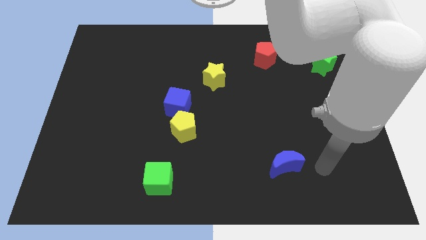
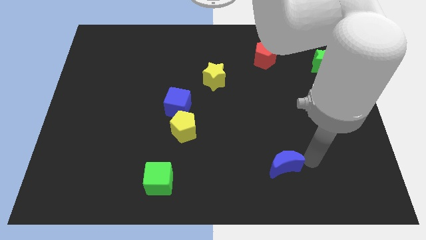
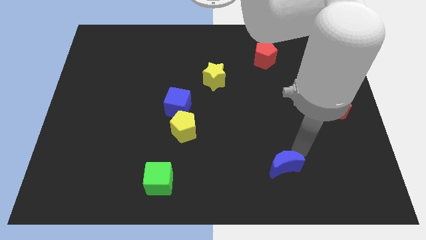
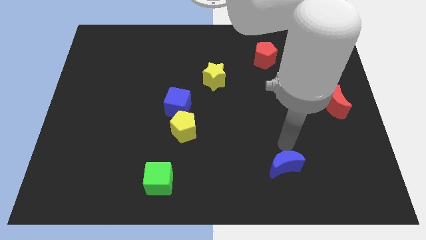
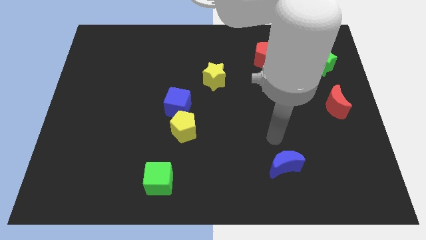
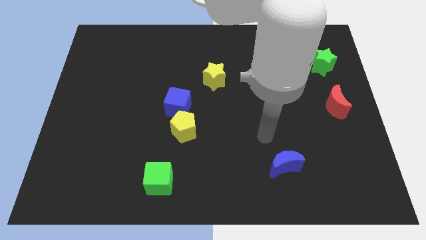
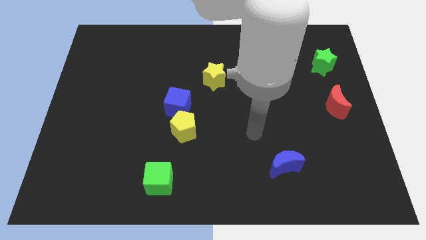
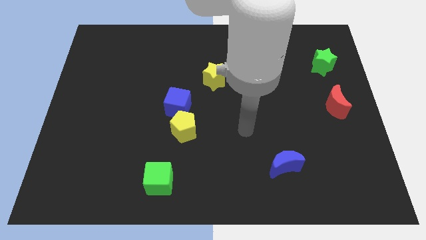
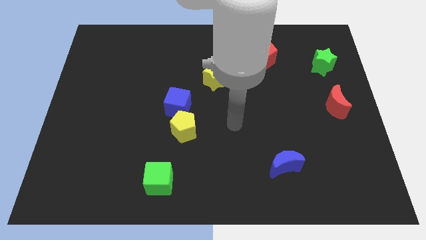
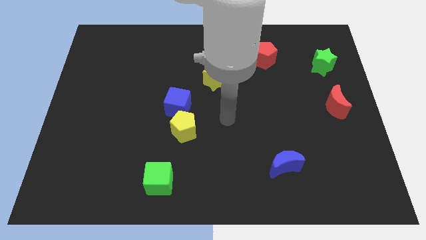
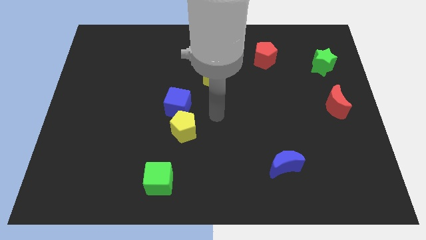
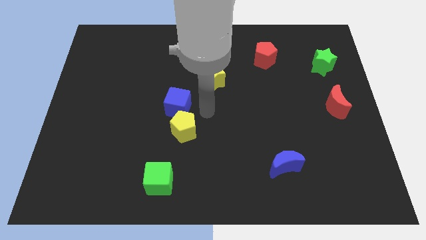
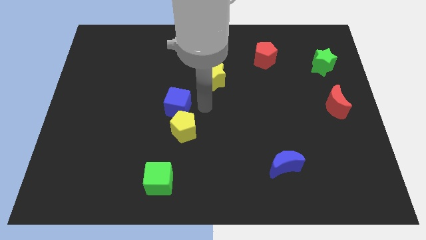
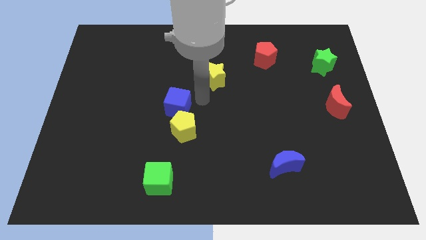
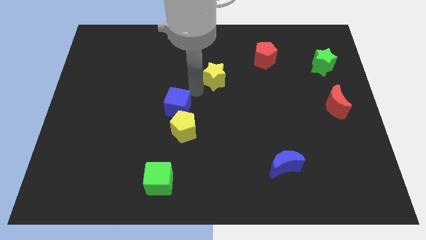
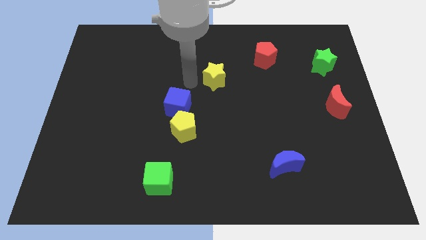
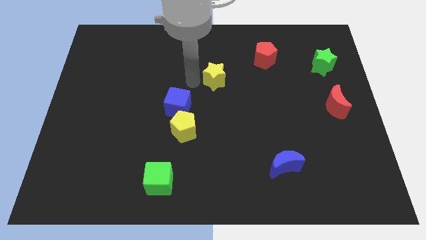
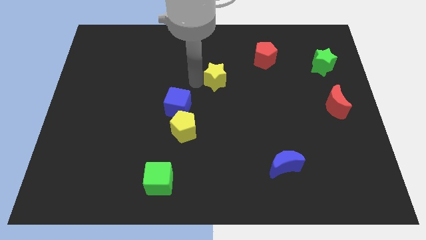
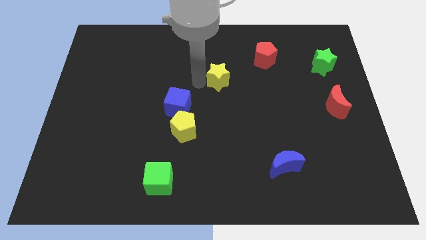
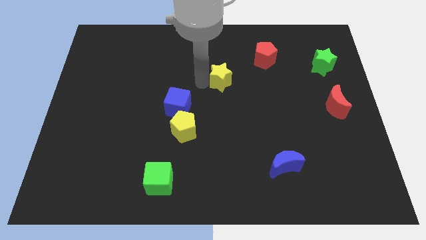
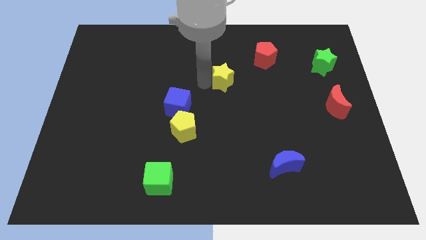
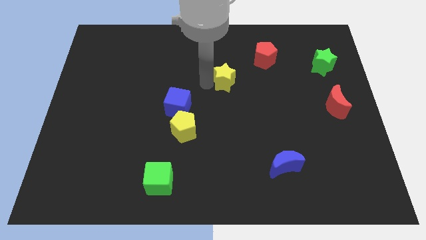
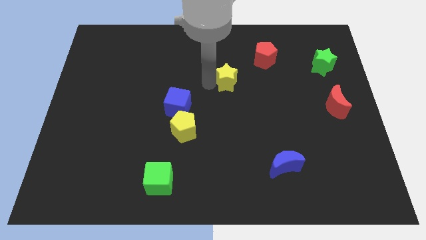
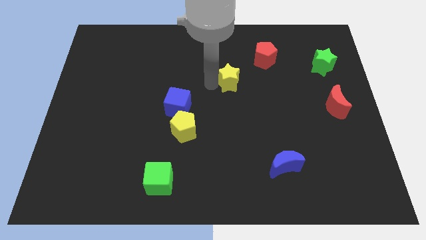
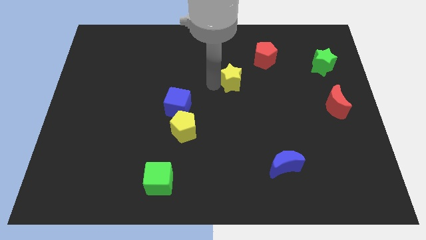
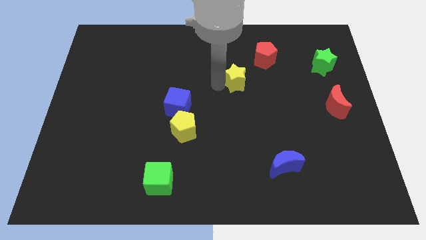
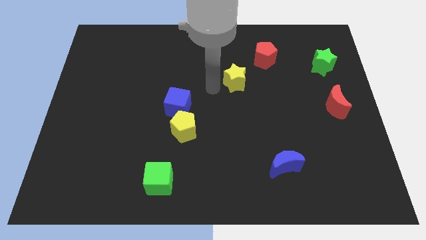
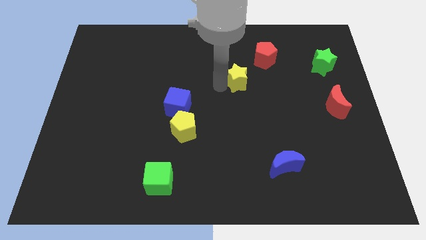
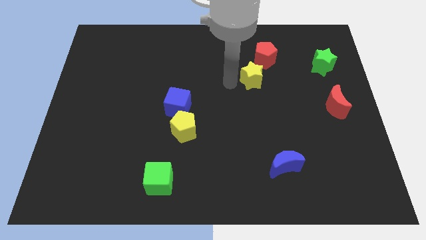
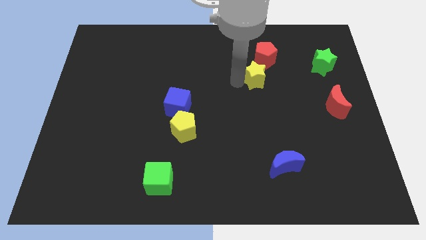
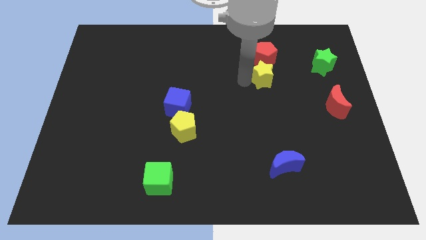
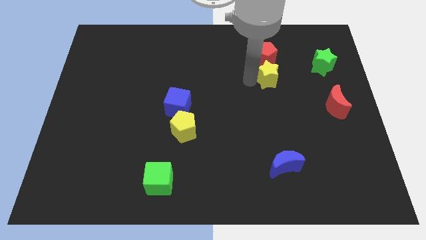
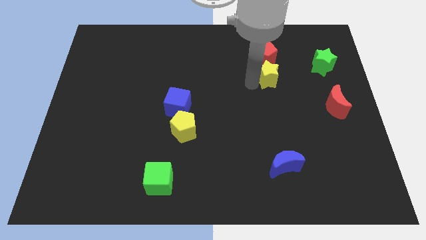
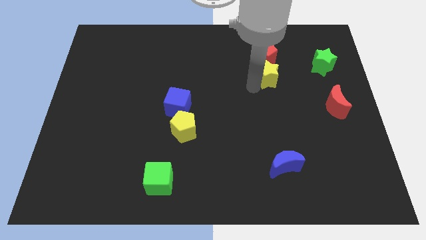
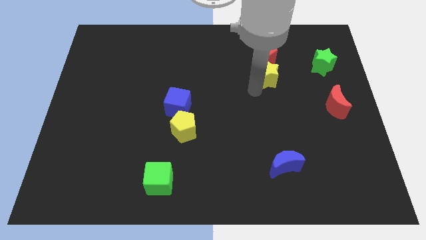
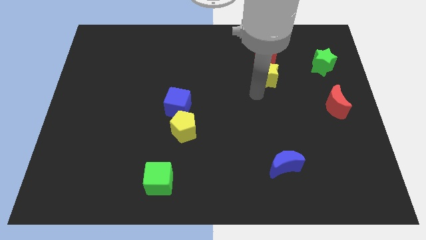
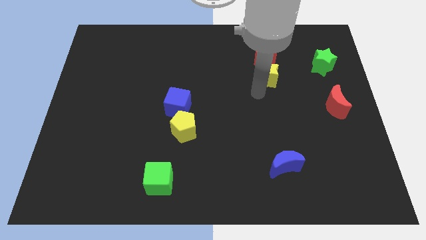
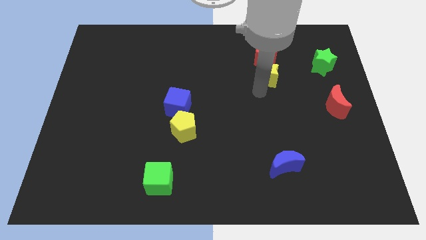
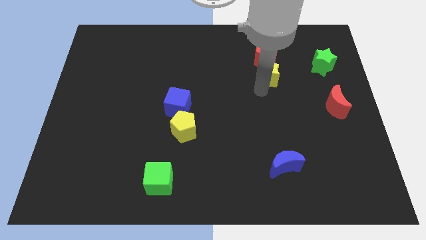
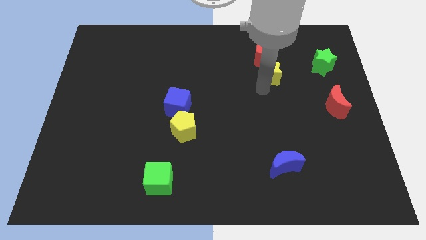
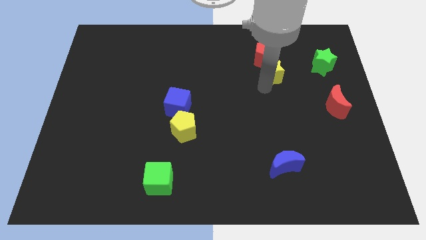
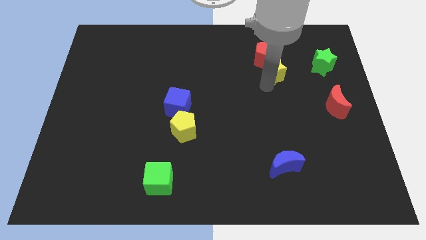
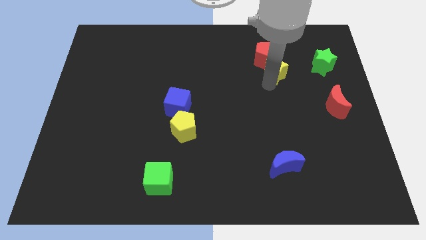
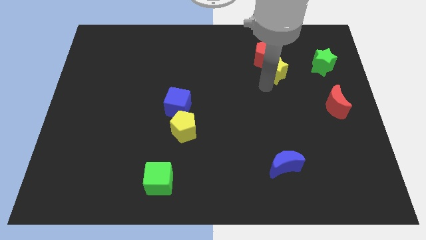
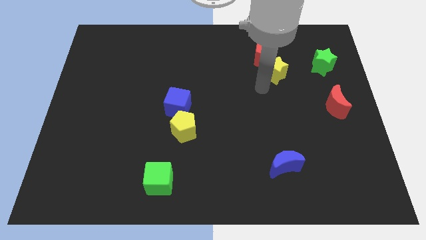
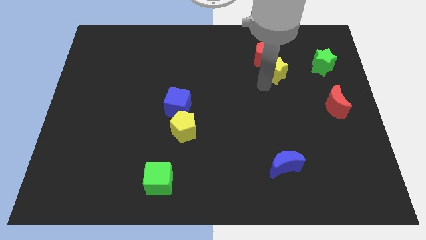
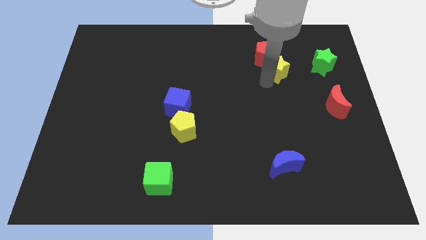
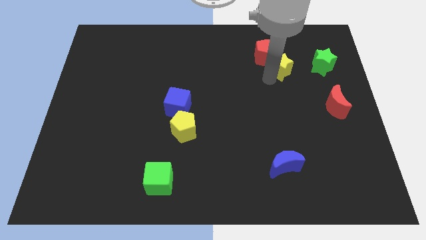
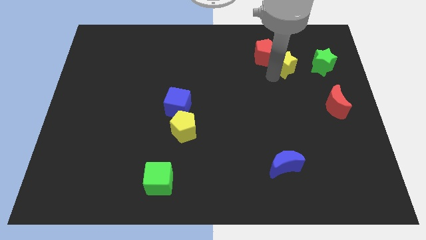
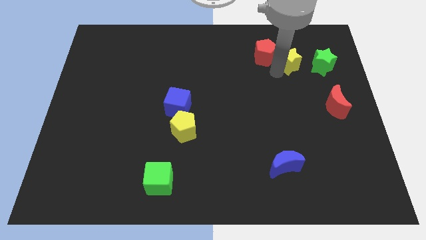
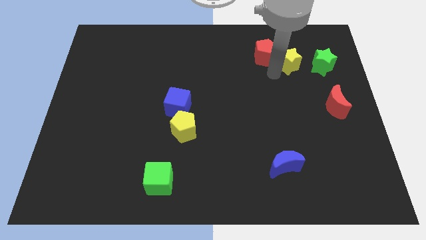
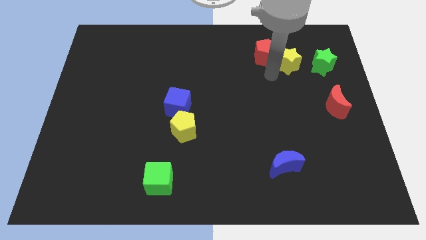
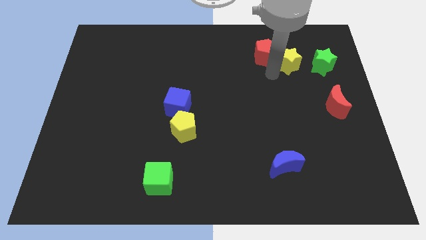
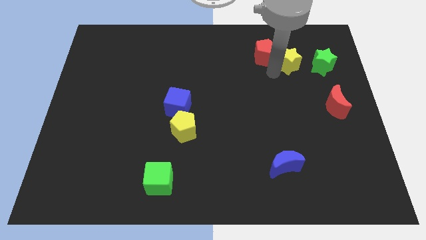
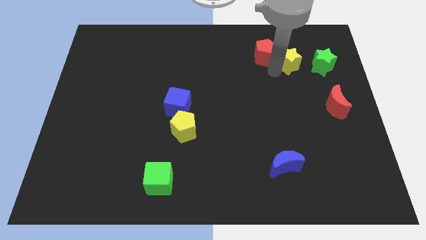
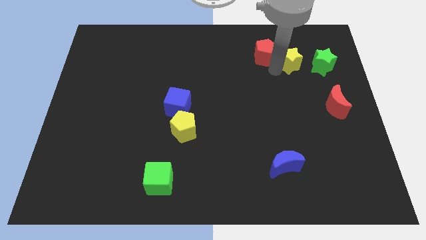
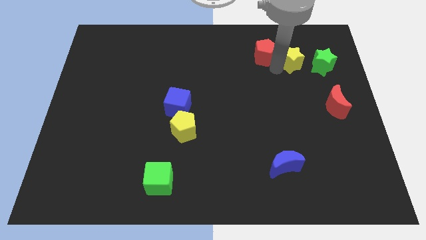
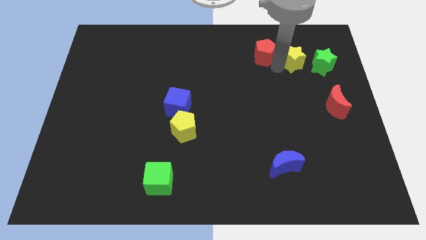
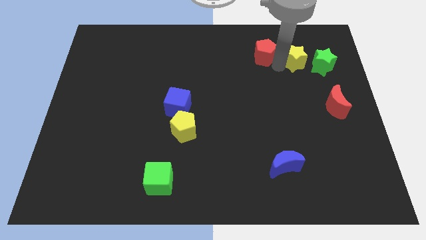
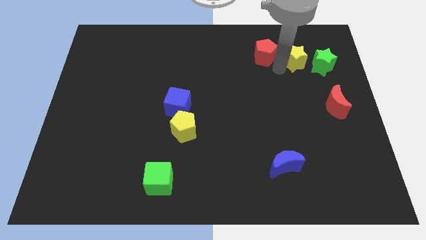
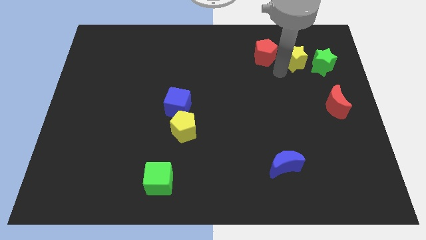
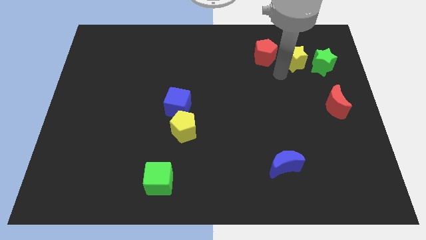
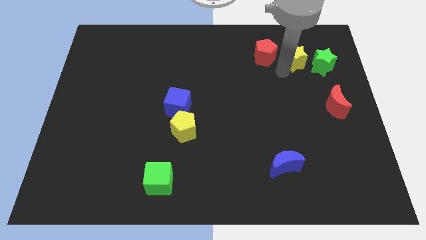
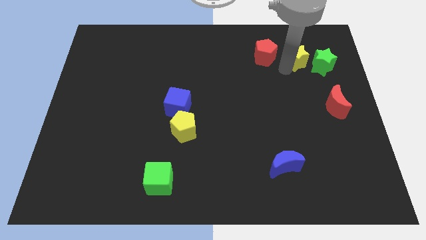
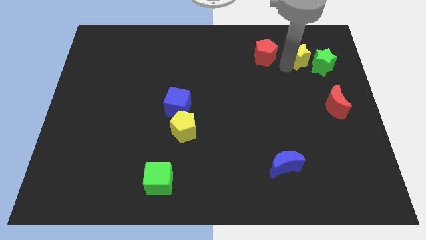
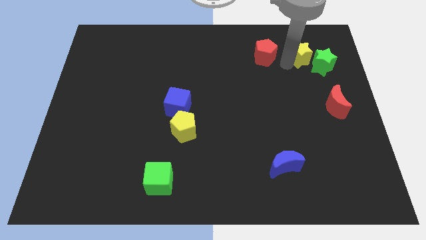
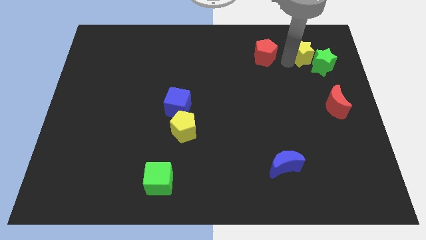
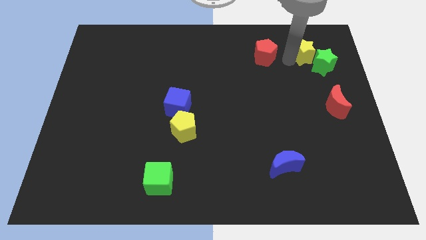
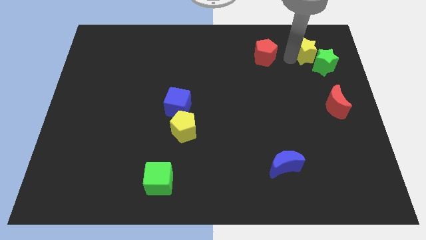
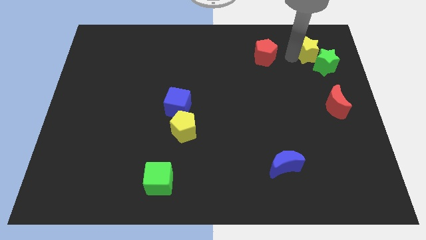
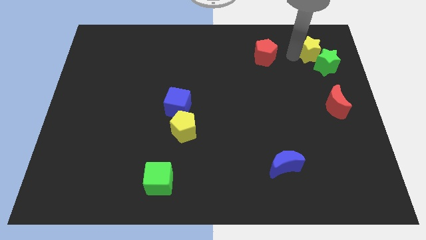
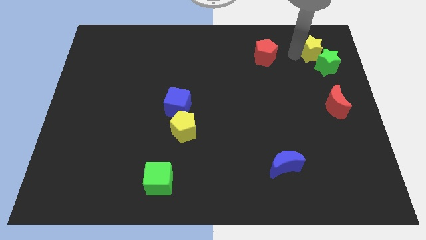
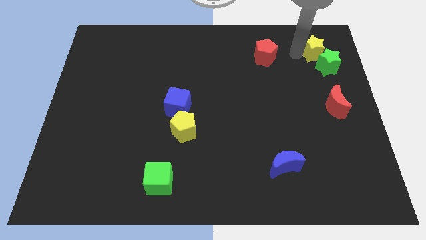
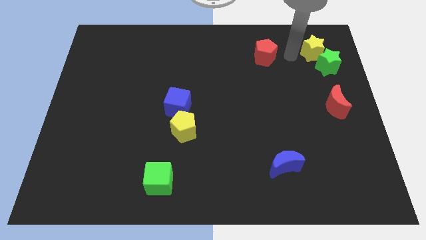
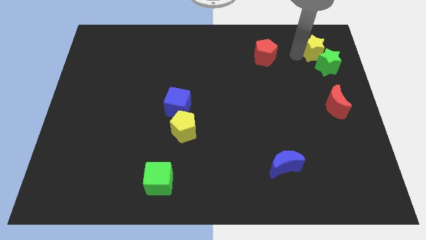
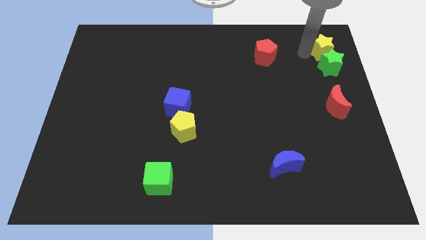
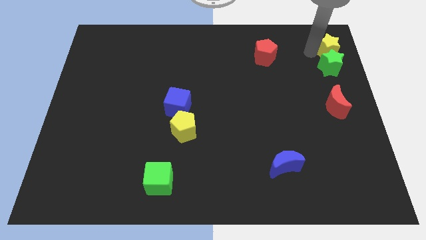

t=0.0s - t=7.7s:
push the yellow star to the top right corner
